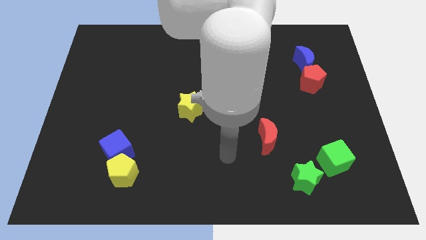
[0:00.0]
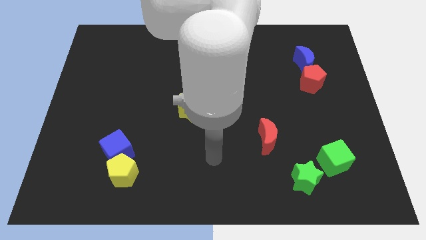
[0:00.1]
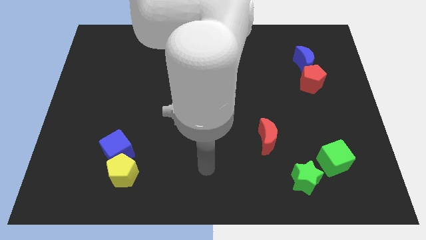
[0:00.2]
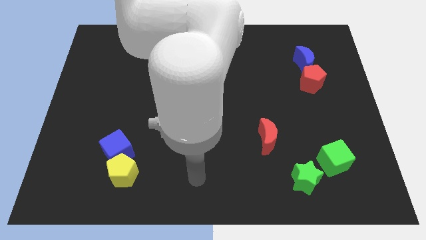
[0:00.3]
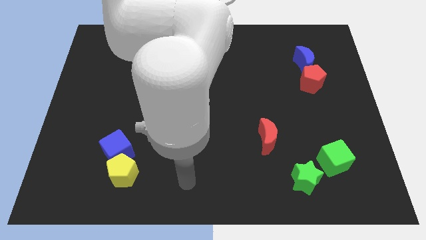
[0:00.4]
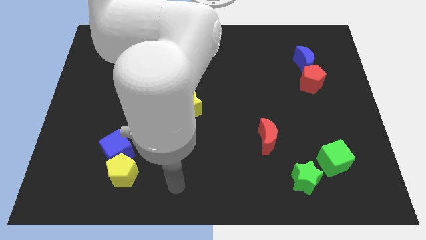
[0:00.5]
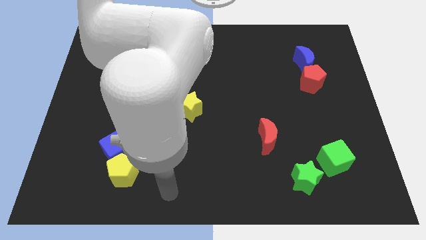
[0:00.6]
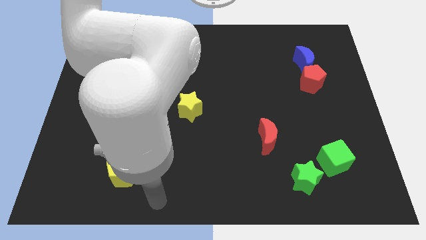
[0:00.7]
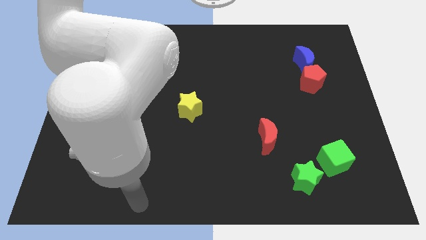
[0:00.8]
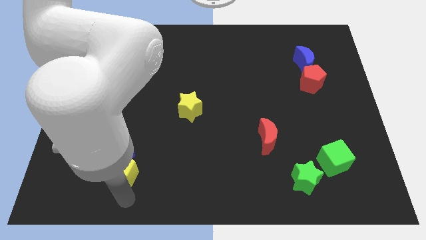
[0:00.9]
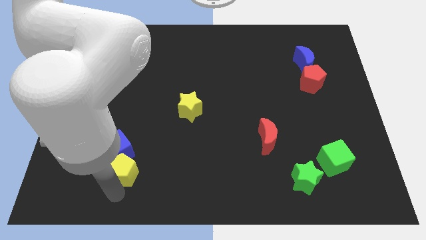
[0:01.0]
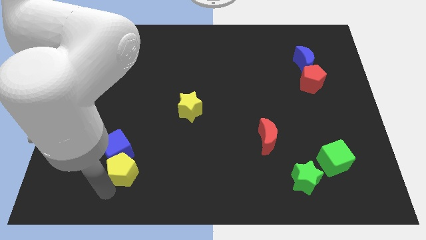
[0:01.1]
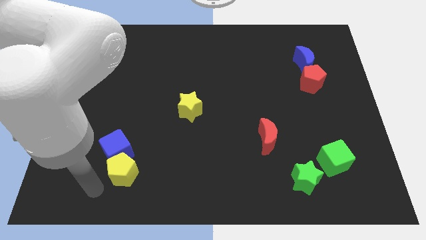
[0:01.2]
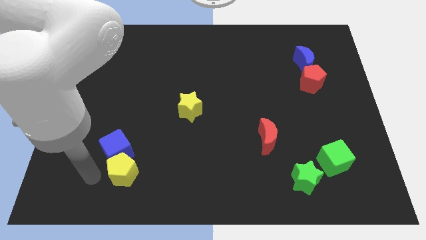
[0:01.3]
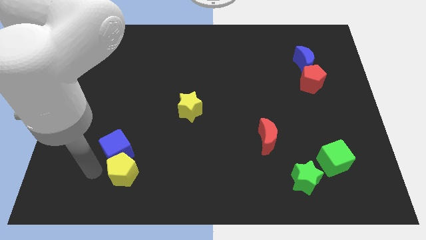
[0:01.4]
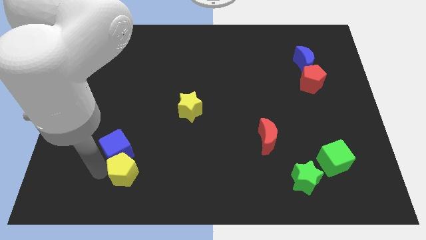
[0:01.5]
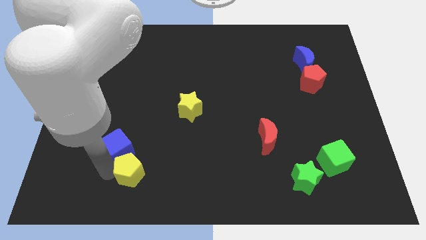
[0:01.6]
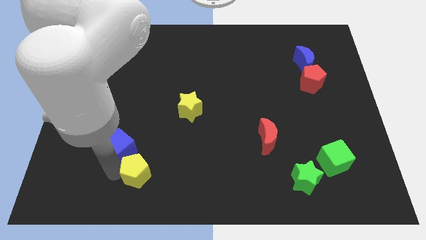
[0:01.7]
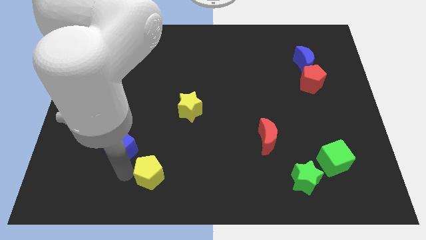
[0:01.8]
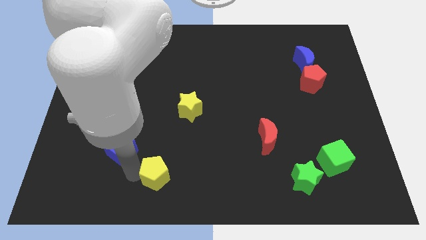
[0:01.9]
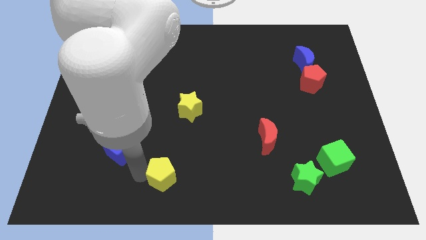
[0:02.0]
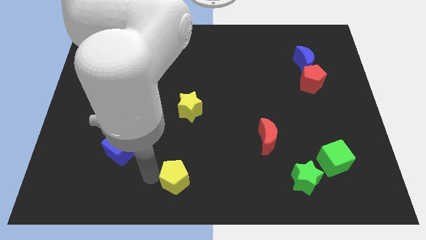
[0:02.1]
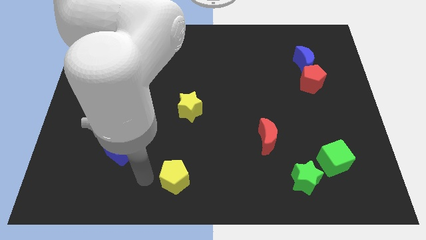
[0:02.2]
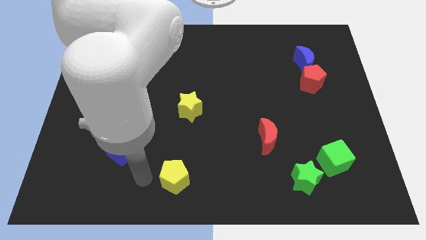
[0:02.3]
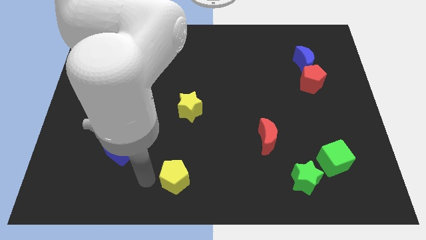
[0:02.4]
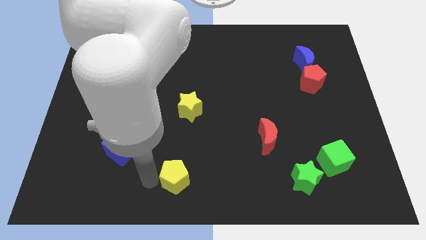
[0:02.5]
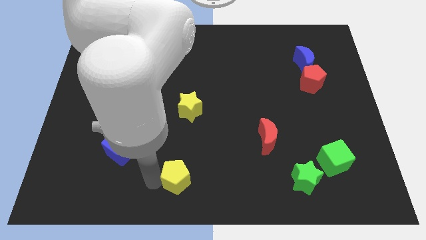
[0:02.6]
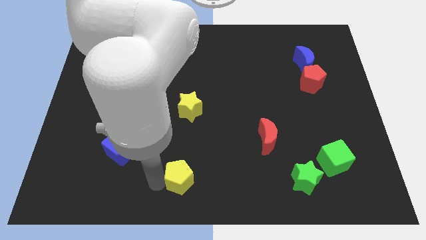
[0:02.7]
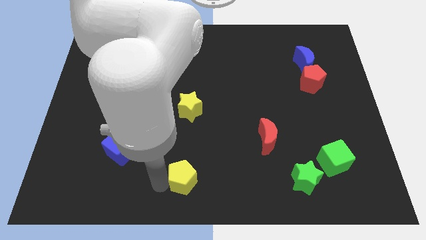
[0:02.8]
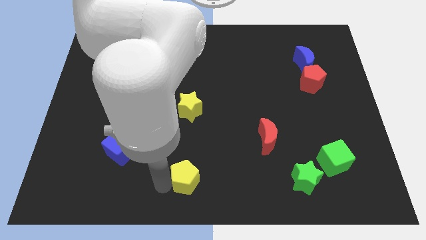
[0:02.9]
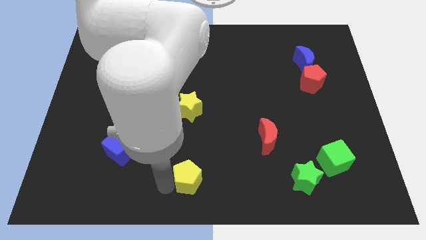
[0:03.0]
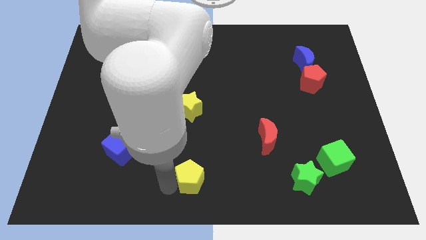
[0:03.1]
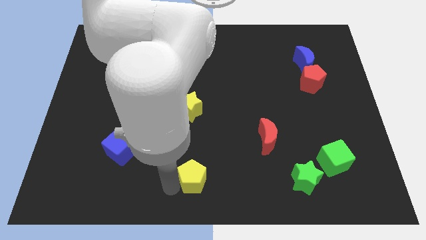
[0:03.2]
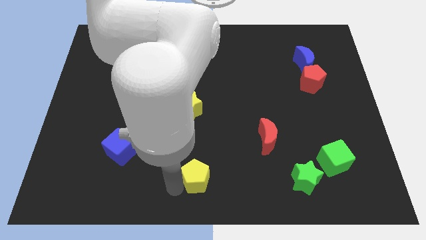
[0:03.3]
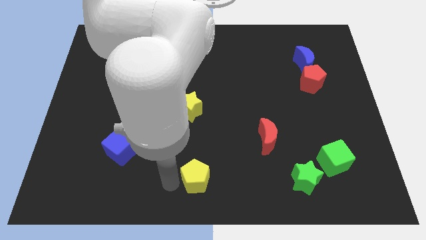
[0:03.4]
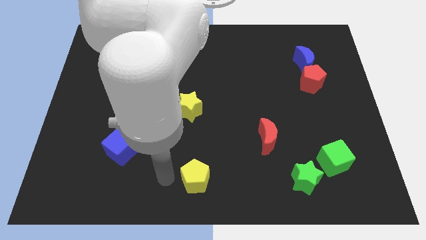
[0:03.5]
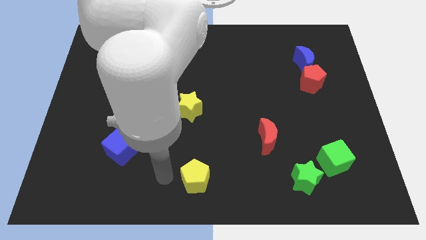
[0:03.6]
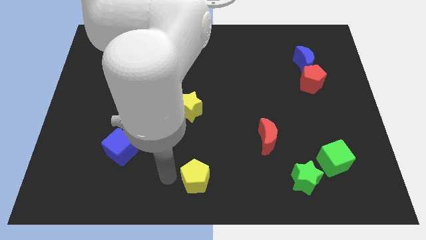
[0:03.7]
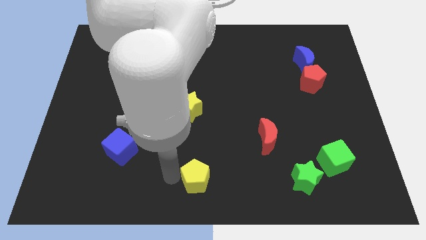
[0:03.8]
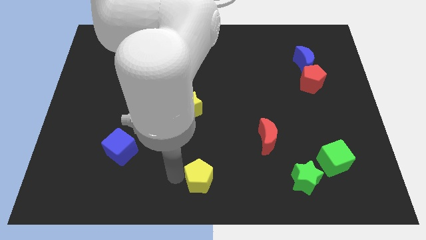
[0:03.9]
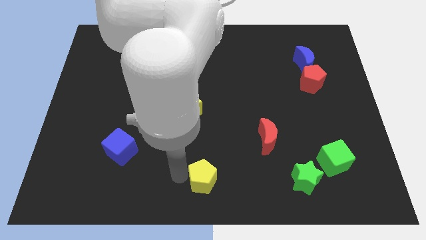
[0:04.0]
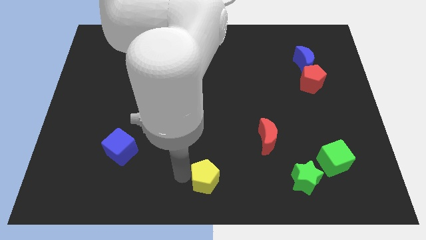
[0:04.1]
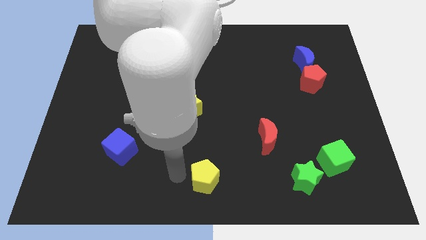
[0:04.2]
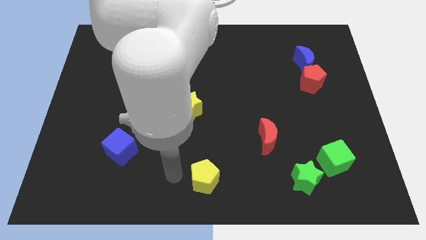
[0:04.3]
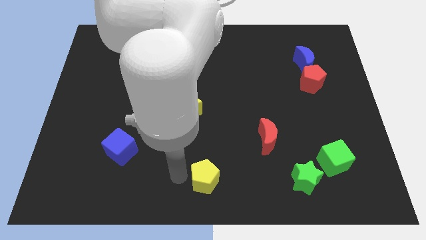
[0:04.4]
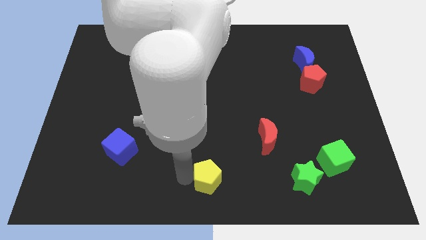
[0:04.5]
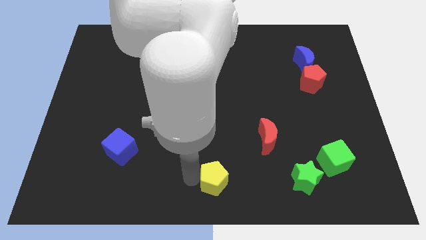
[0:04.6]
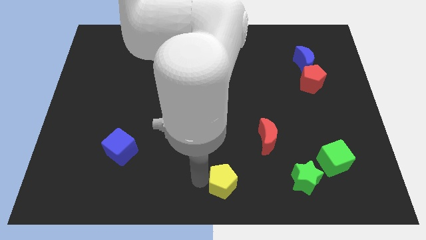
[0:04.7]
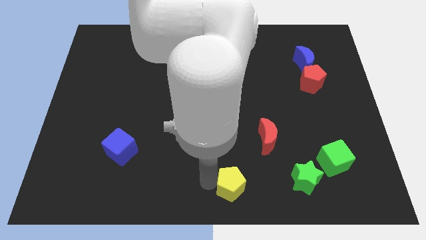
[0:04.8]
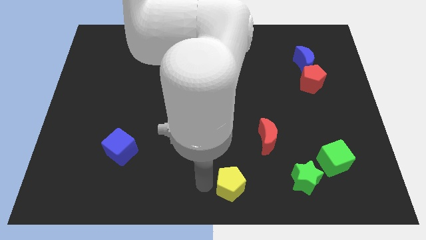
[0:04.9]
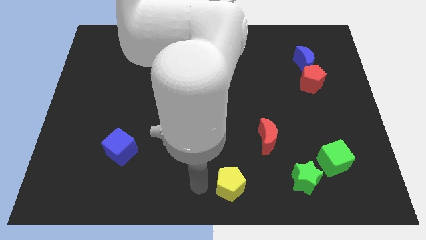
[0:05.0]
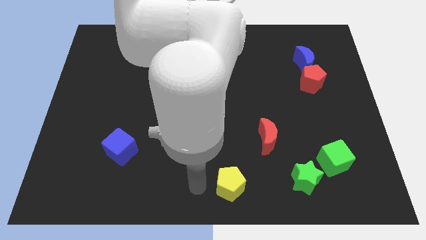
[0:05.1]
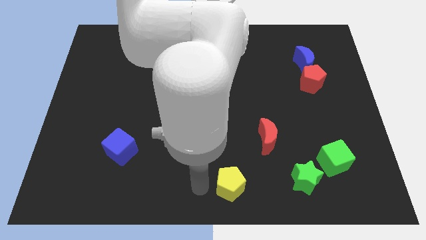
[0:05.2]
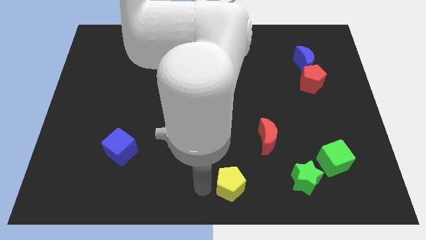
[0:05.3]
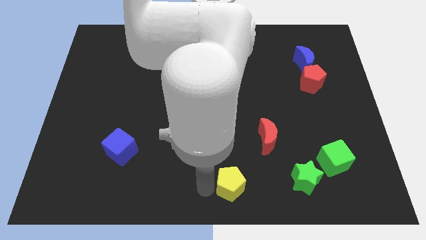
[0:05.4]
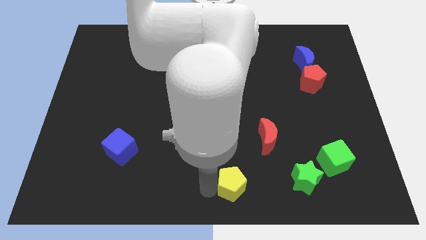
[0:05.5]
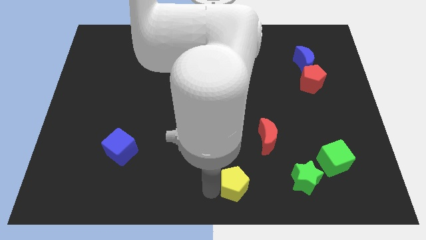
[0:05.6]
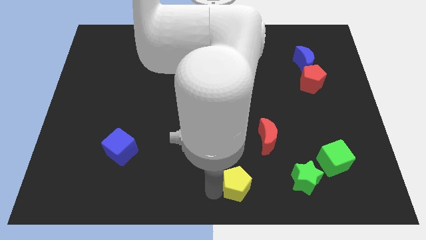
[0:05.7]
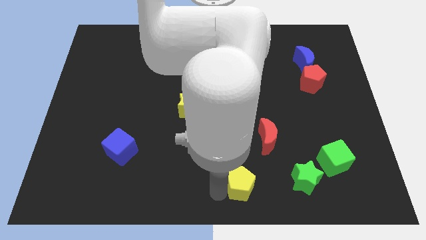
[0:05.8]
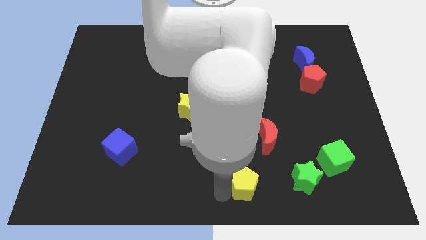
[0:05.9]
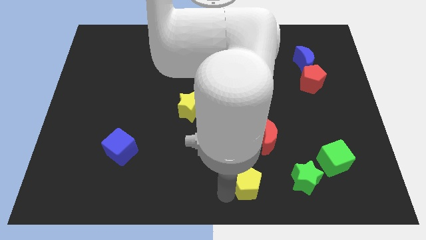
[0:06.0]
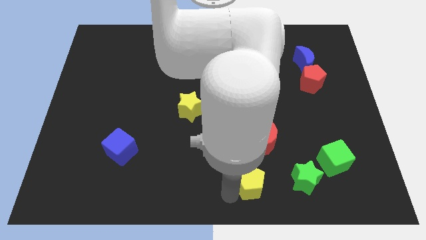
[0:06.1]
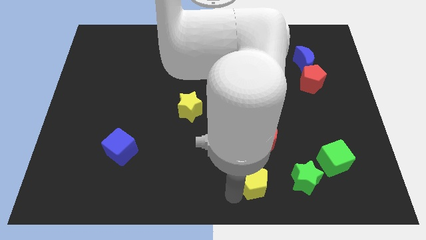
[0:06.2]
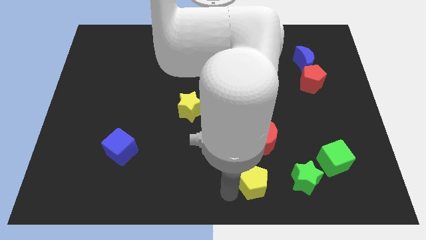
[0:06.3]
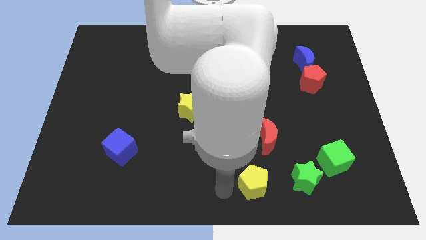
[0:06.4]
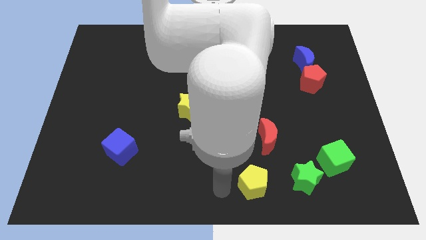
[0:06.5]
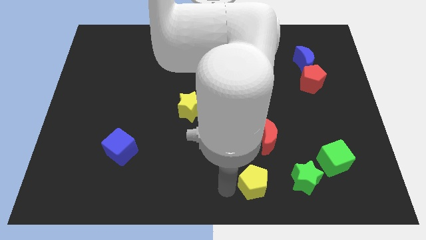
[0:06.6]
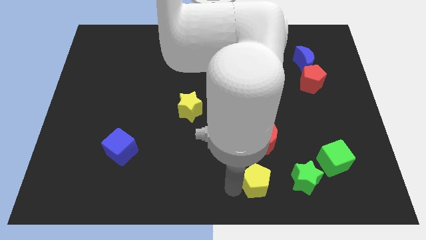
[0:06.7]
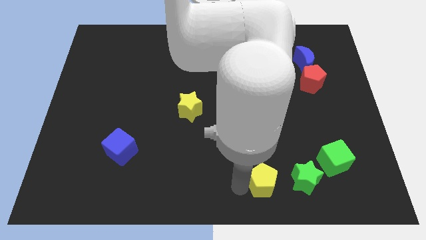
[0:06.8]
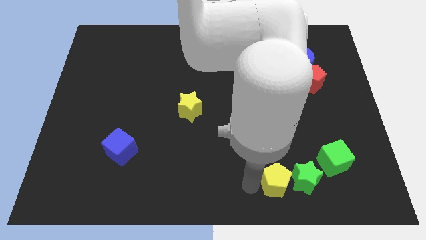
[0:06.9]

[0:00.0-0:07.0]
push the yellow pentagon towards the green star
